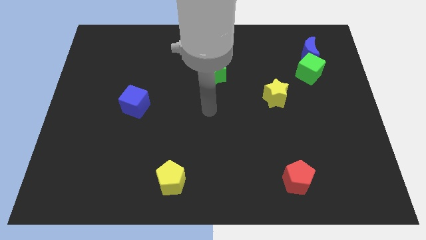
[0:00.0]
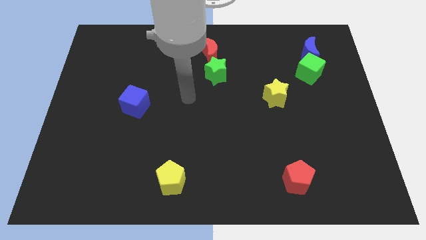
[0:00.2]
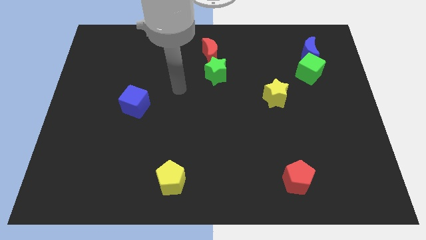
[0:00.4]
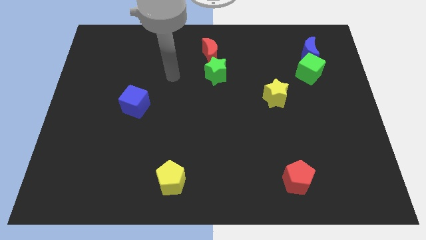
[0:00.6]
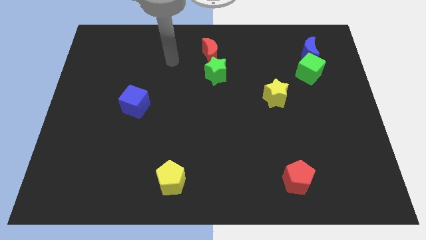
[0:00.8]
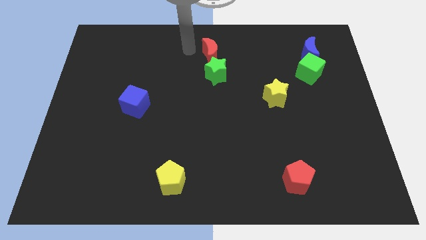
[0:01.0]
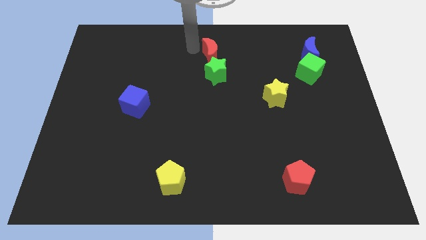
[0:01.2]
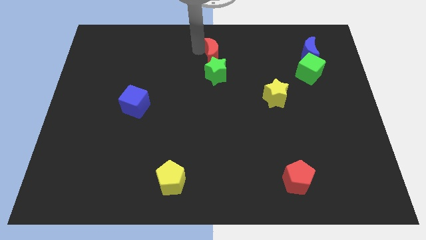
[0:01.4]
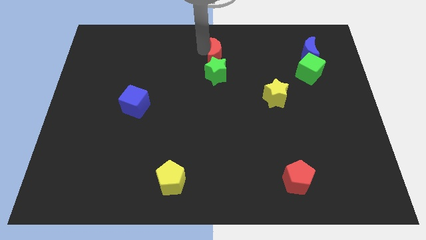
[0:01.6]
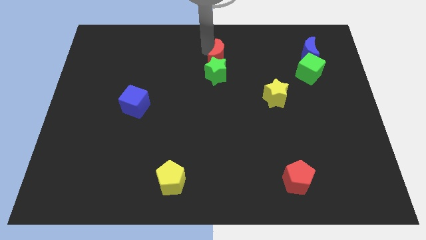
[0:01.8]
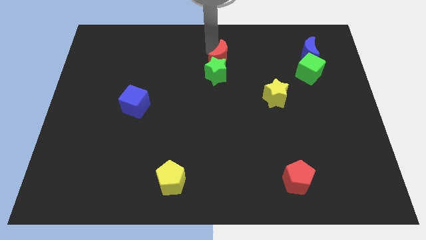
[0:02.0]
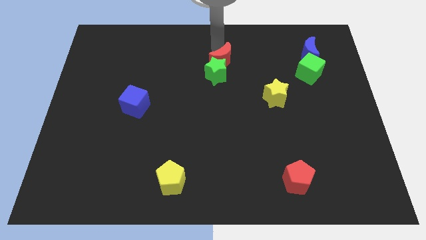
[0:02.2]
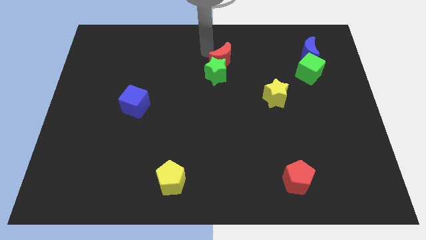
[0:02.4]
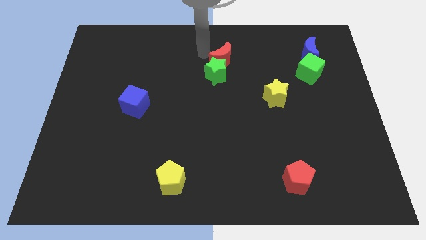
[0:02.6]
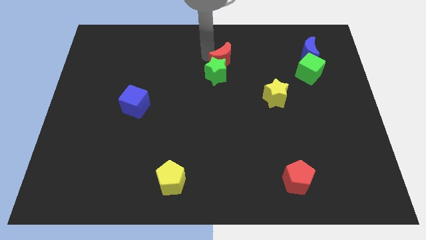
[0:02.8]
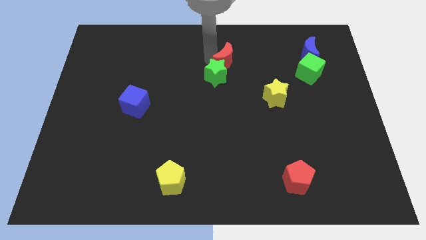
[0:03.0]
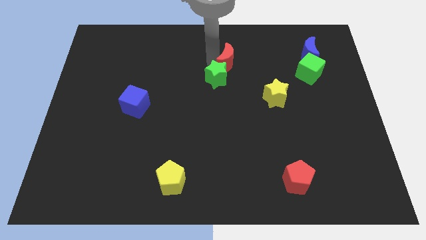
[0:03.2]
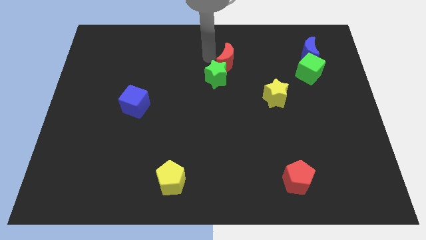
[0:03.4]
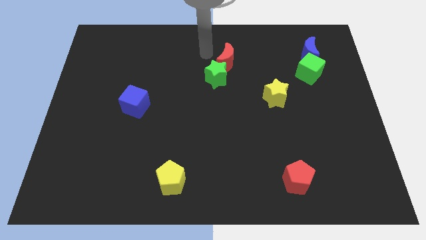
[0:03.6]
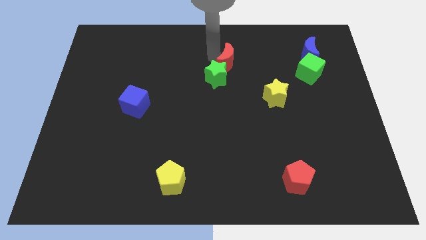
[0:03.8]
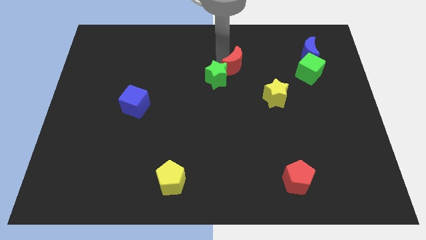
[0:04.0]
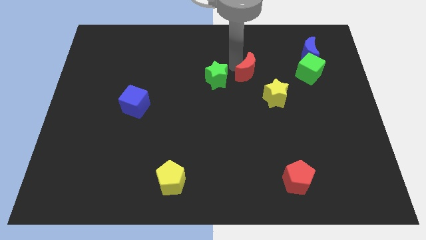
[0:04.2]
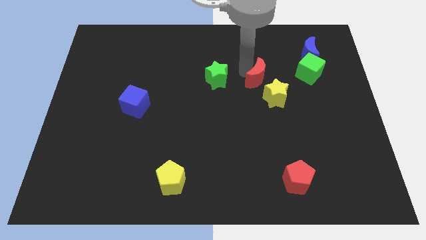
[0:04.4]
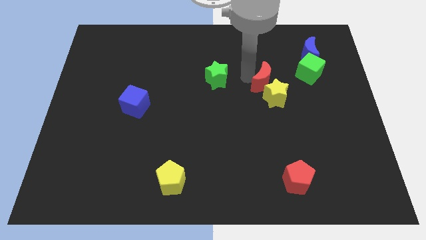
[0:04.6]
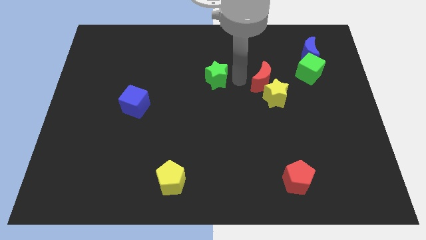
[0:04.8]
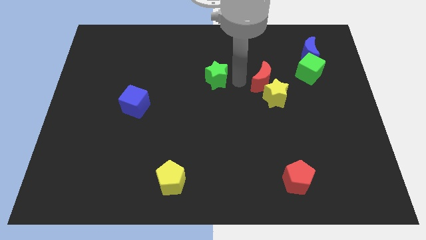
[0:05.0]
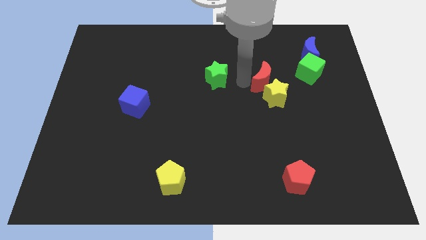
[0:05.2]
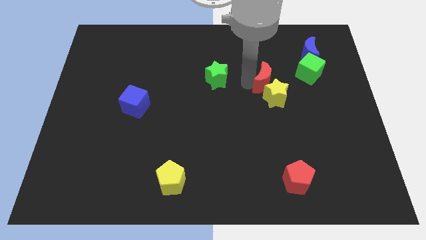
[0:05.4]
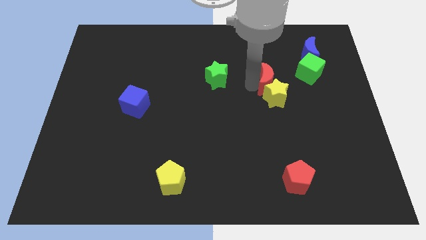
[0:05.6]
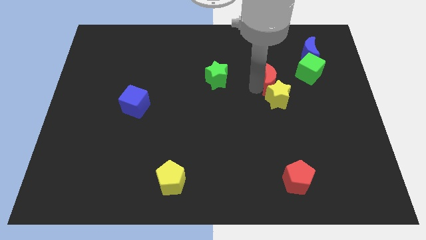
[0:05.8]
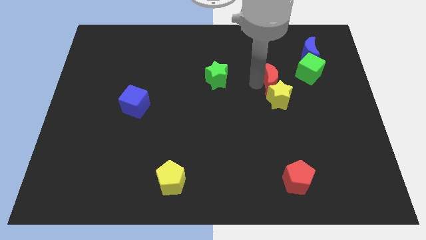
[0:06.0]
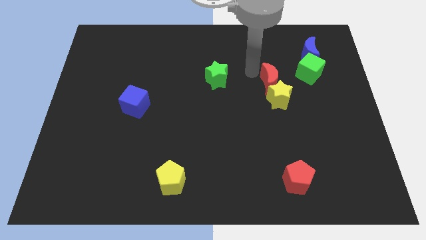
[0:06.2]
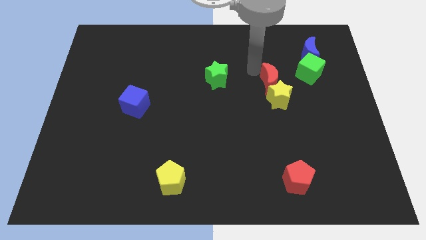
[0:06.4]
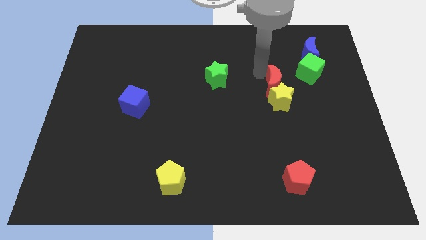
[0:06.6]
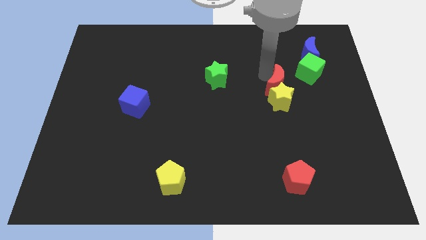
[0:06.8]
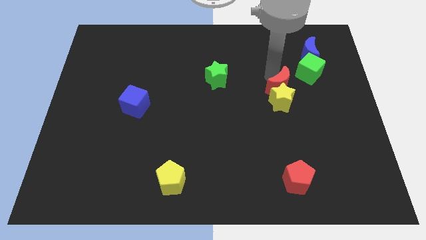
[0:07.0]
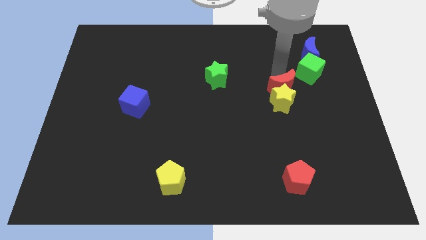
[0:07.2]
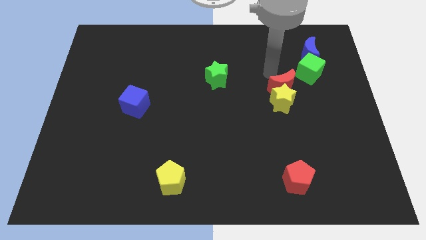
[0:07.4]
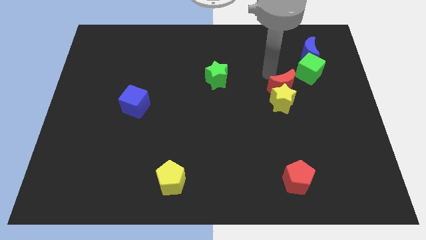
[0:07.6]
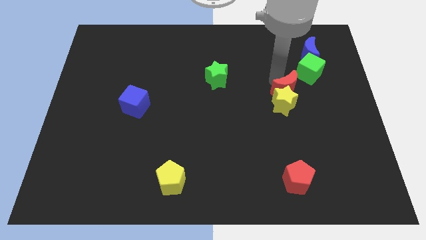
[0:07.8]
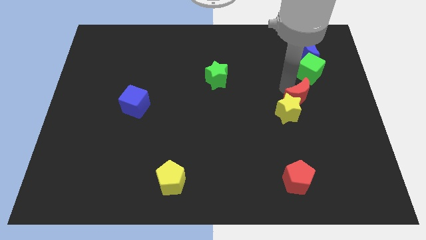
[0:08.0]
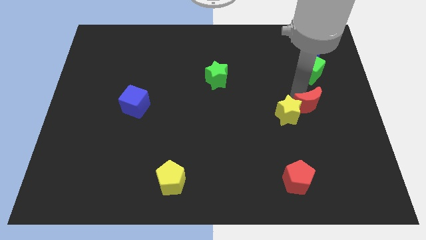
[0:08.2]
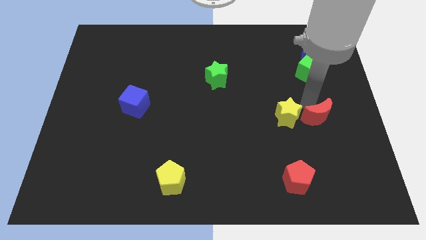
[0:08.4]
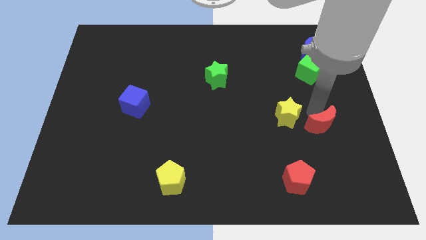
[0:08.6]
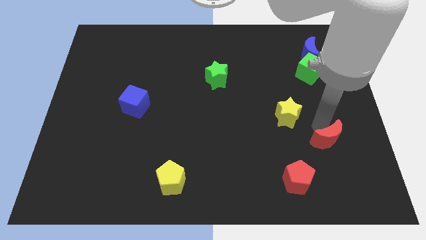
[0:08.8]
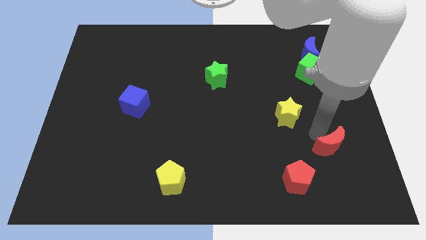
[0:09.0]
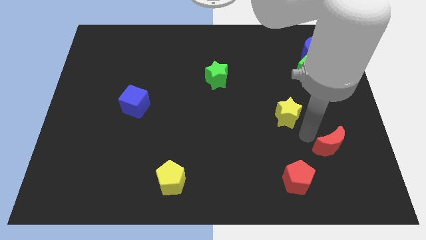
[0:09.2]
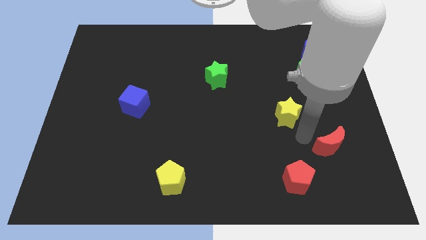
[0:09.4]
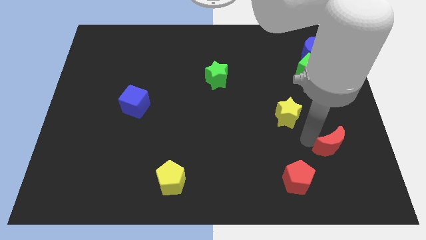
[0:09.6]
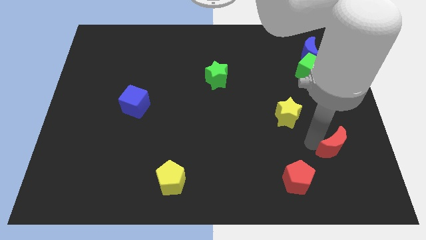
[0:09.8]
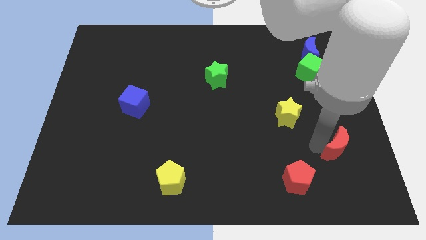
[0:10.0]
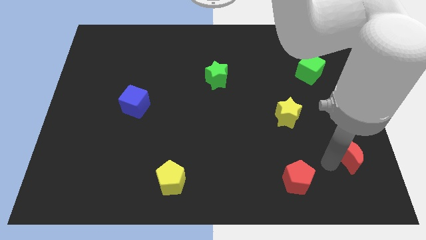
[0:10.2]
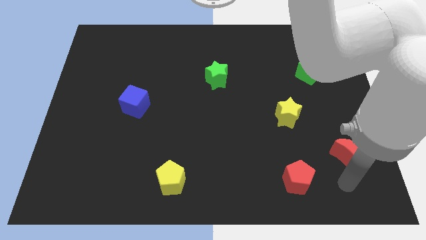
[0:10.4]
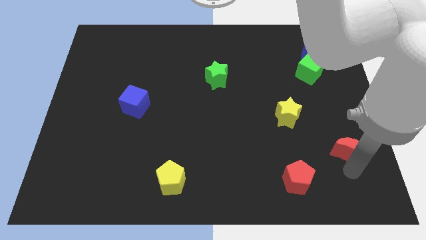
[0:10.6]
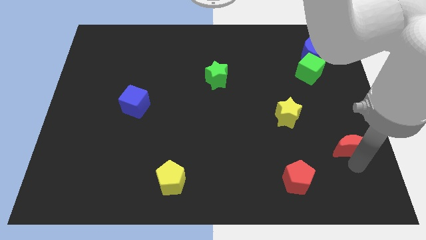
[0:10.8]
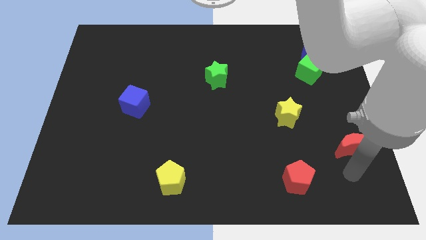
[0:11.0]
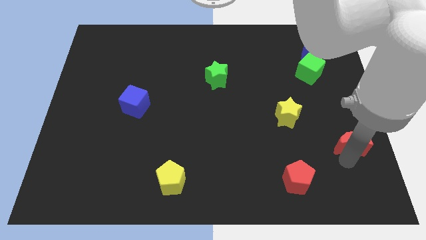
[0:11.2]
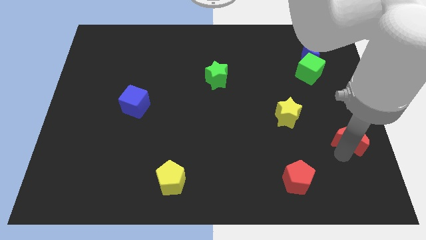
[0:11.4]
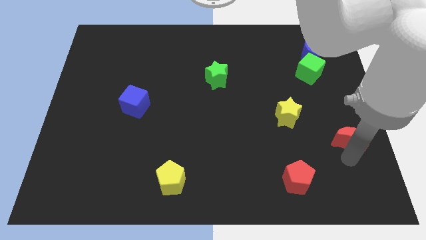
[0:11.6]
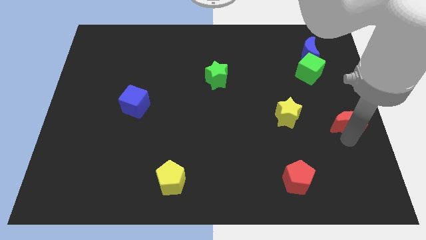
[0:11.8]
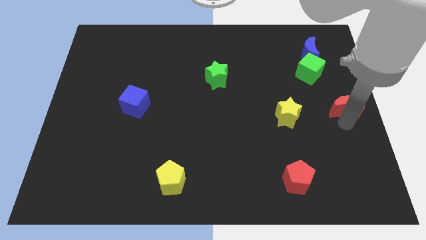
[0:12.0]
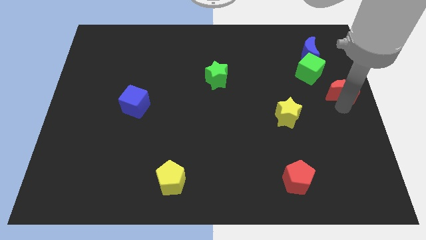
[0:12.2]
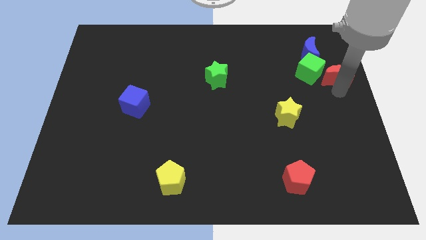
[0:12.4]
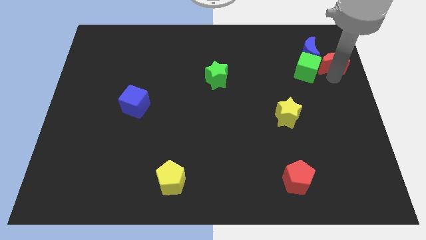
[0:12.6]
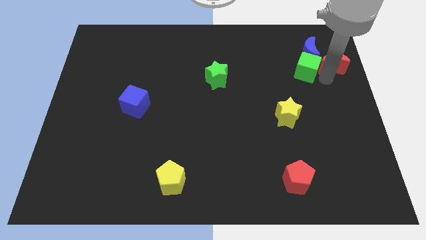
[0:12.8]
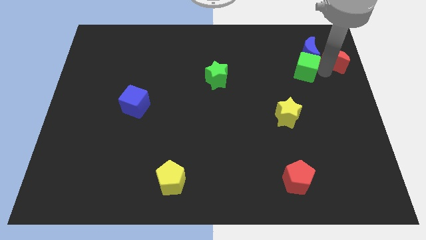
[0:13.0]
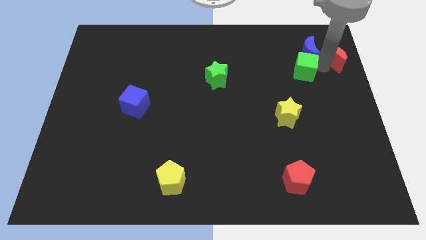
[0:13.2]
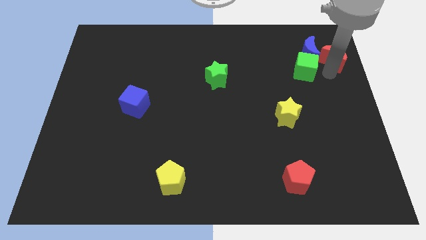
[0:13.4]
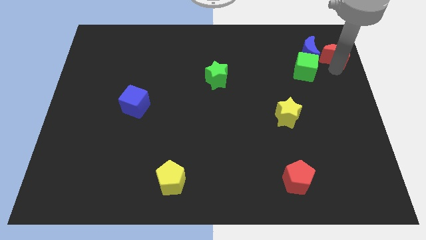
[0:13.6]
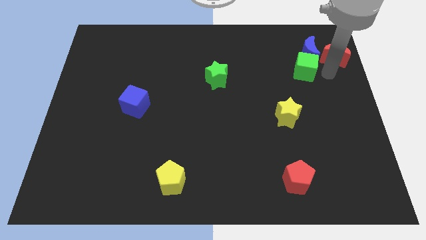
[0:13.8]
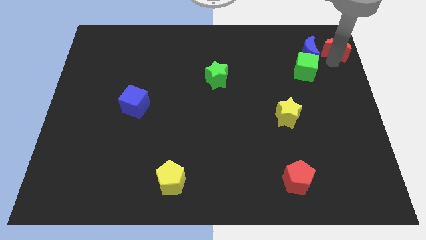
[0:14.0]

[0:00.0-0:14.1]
move the red moon to the top right
